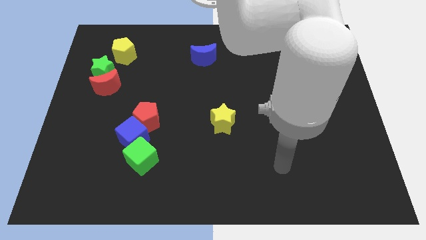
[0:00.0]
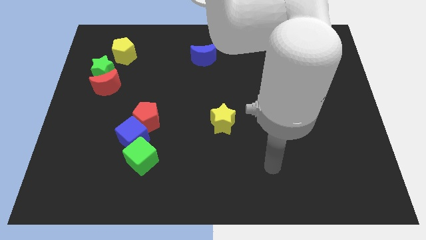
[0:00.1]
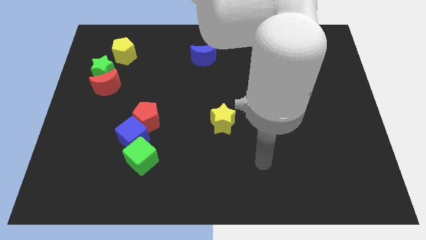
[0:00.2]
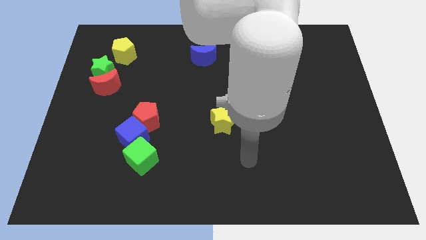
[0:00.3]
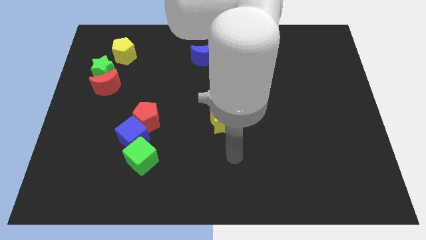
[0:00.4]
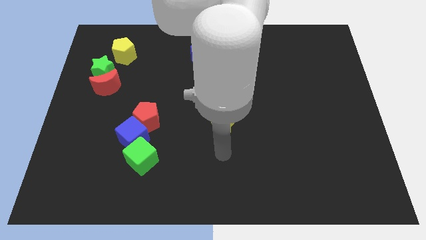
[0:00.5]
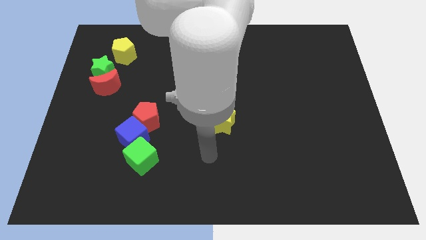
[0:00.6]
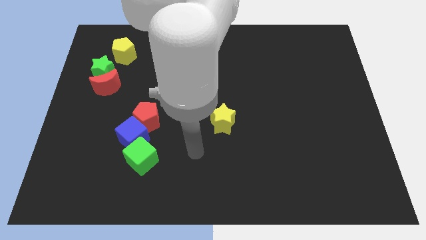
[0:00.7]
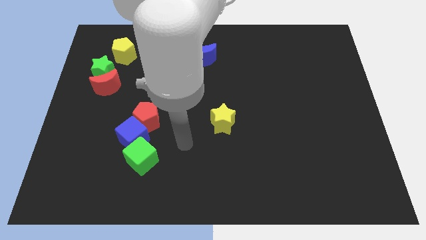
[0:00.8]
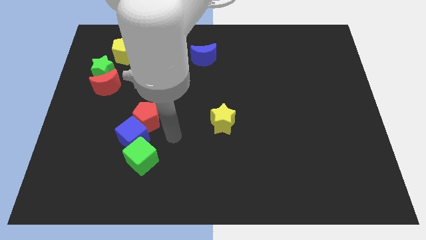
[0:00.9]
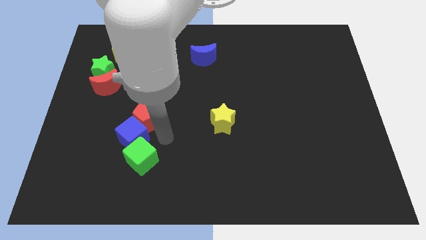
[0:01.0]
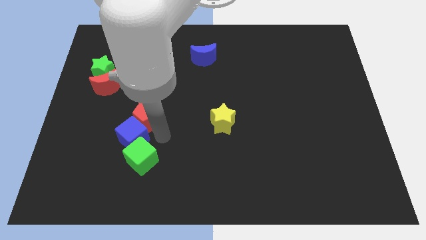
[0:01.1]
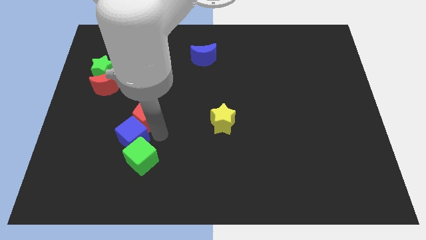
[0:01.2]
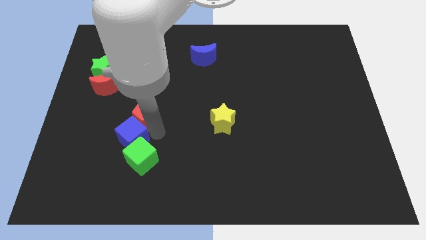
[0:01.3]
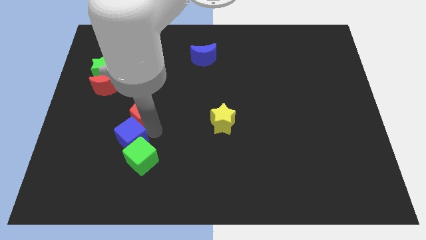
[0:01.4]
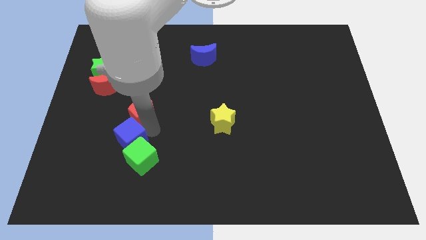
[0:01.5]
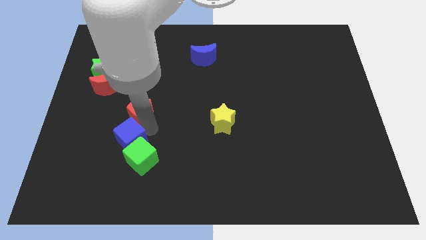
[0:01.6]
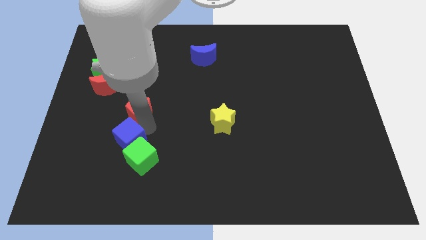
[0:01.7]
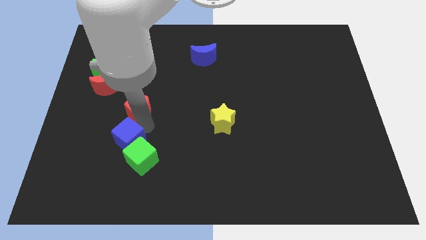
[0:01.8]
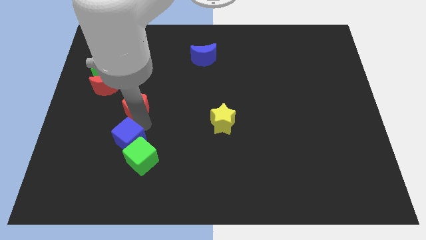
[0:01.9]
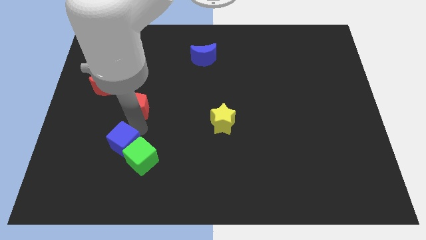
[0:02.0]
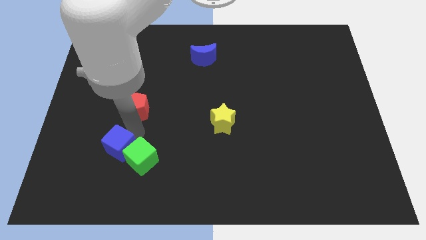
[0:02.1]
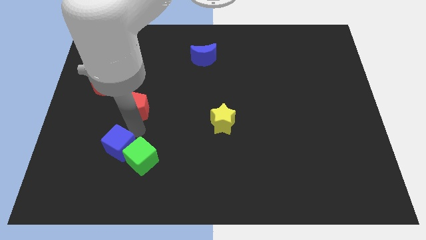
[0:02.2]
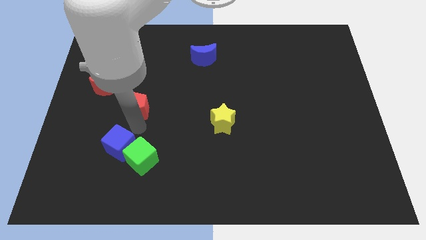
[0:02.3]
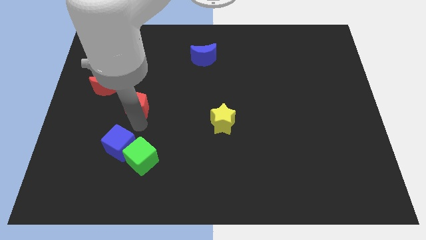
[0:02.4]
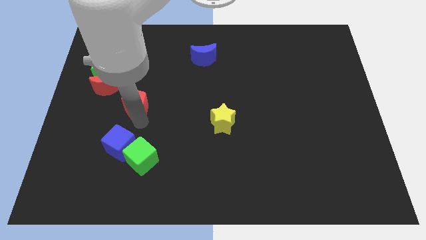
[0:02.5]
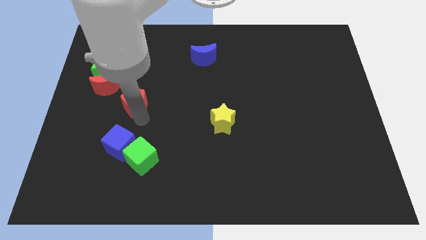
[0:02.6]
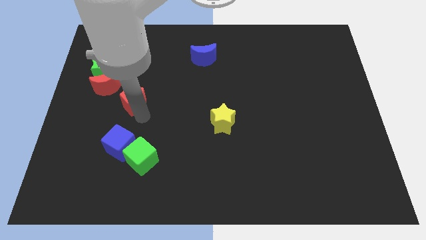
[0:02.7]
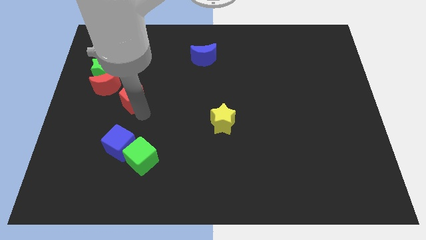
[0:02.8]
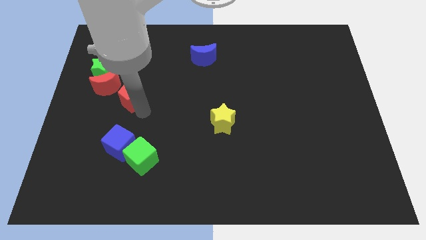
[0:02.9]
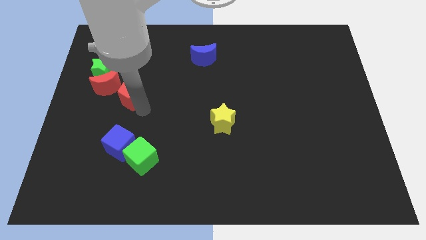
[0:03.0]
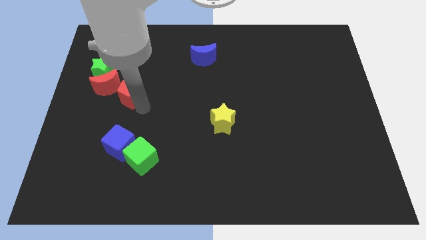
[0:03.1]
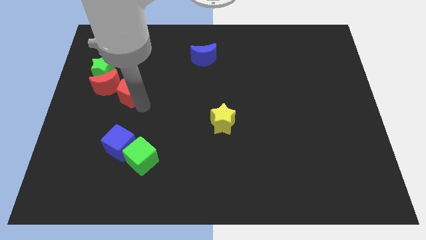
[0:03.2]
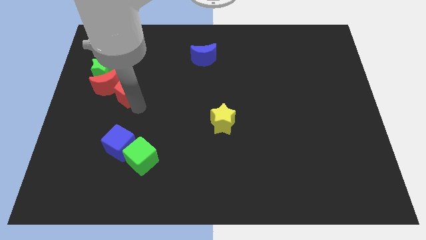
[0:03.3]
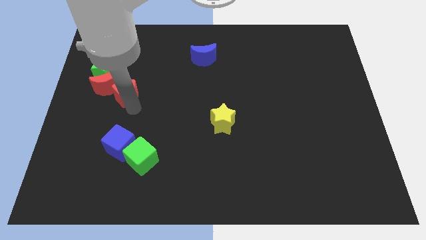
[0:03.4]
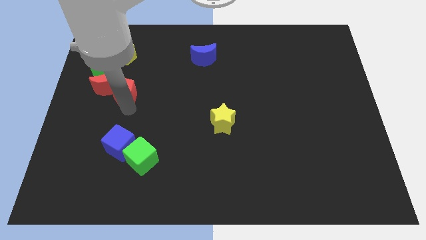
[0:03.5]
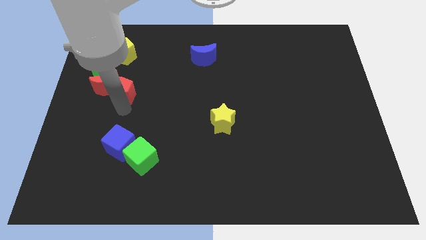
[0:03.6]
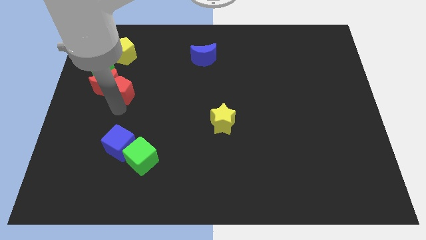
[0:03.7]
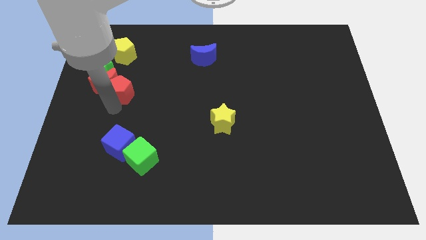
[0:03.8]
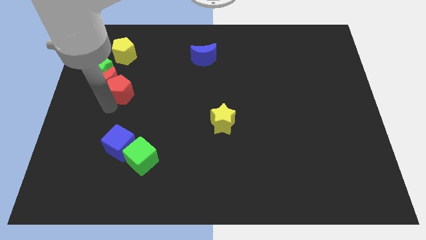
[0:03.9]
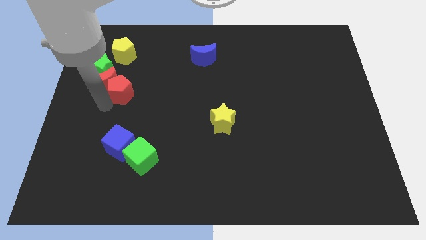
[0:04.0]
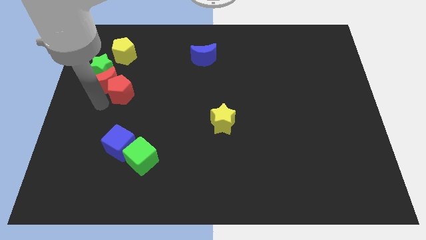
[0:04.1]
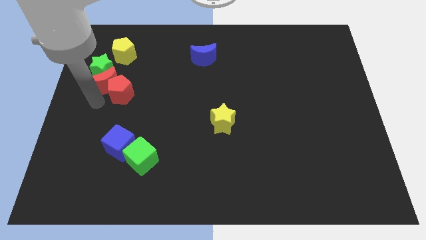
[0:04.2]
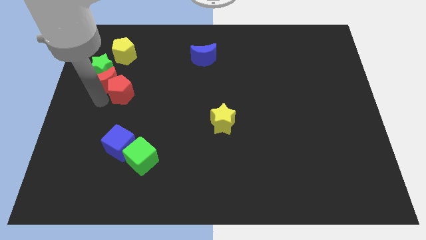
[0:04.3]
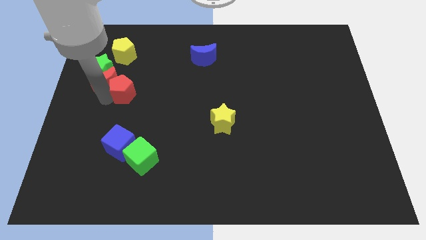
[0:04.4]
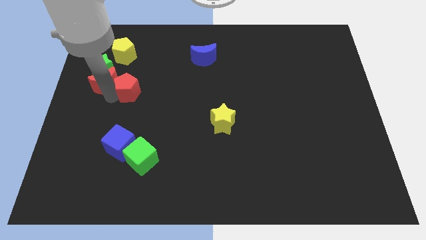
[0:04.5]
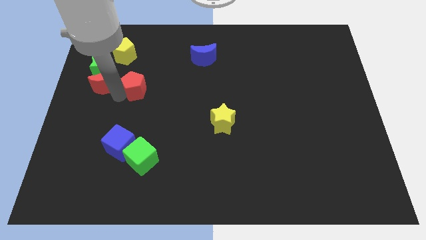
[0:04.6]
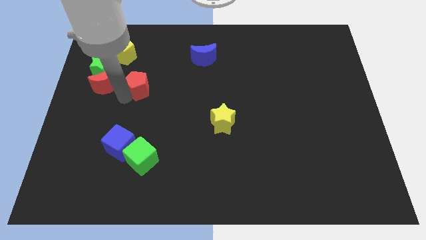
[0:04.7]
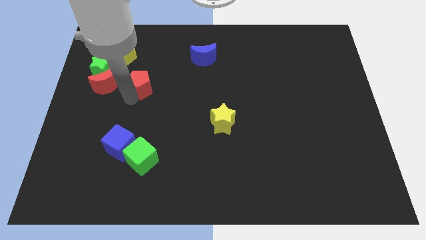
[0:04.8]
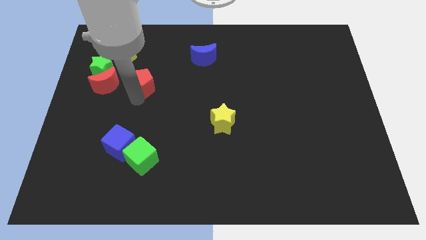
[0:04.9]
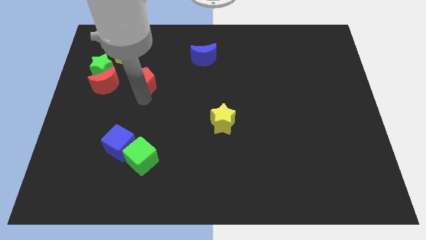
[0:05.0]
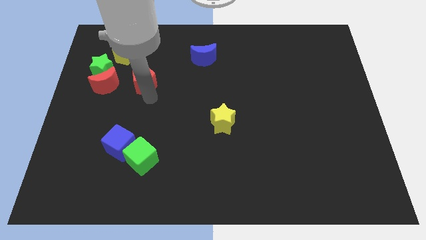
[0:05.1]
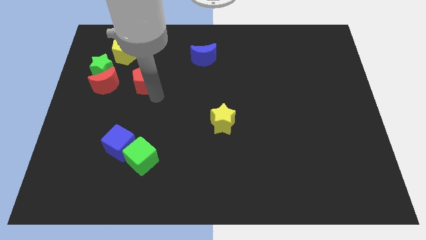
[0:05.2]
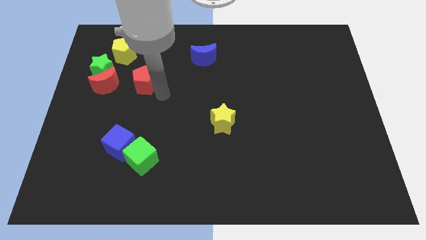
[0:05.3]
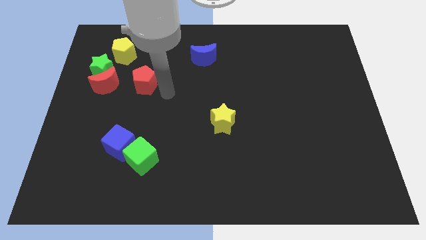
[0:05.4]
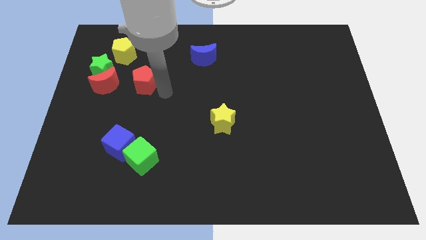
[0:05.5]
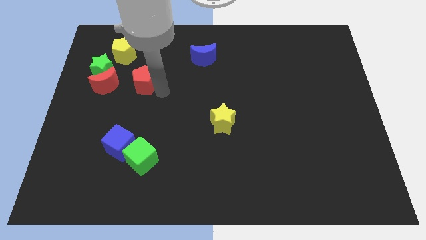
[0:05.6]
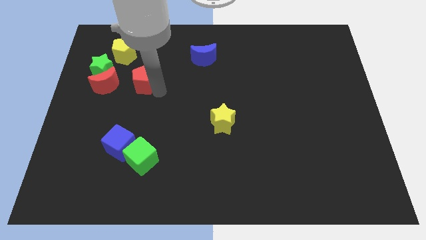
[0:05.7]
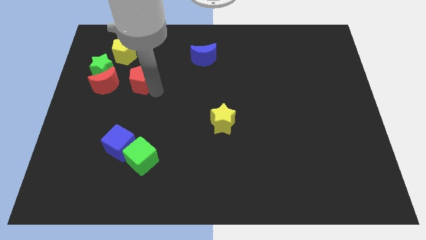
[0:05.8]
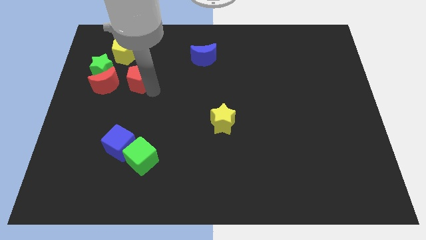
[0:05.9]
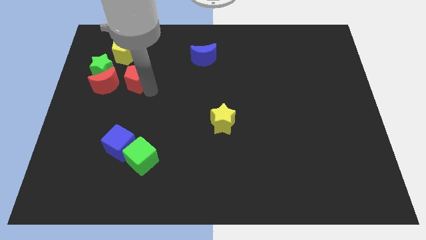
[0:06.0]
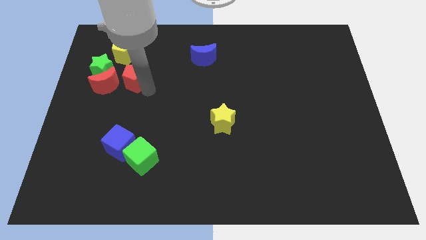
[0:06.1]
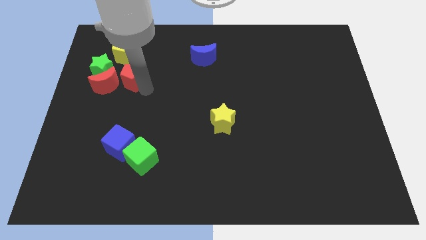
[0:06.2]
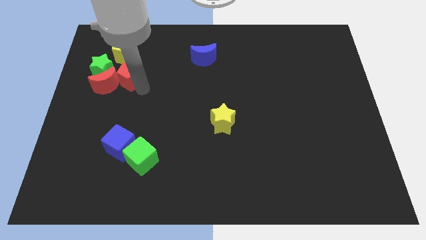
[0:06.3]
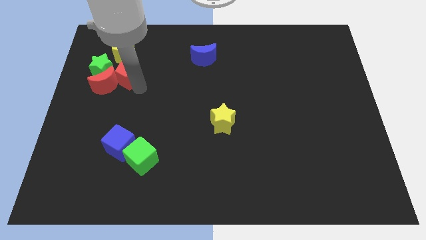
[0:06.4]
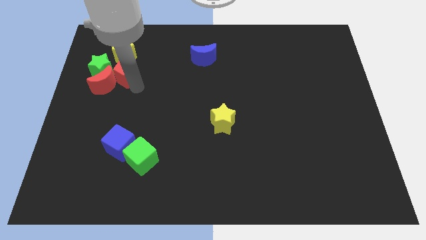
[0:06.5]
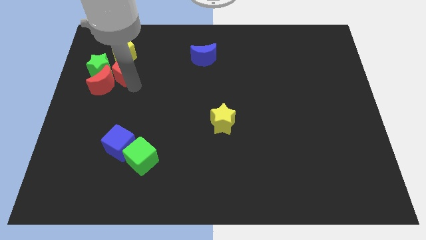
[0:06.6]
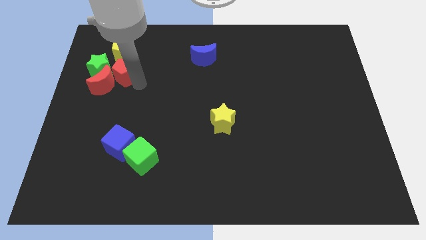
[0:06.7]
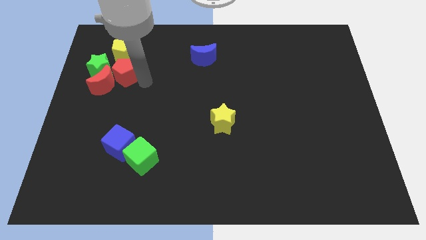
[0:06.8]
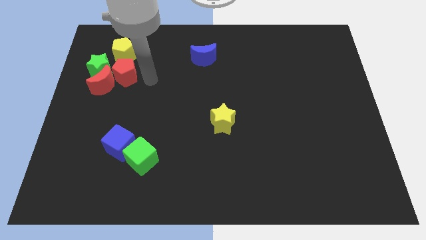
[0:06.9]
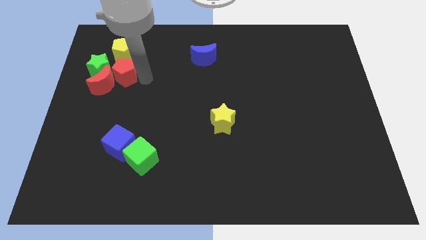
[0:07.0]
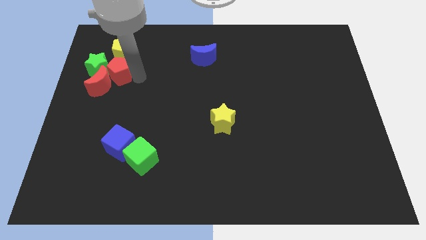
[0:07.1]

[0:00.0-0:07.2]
put the red pentagon close to the green star

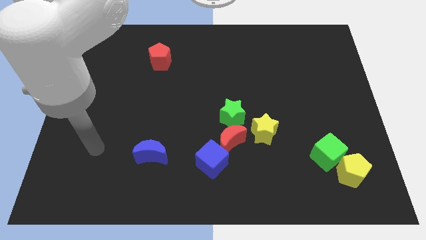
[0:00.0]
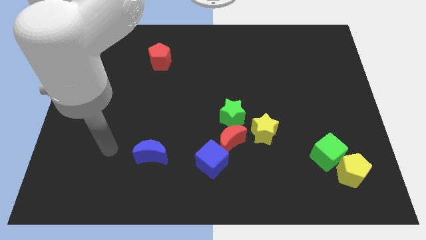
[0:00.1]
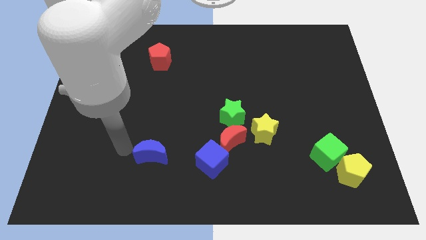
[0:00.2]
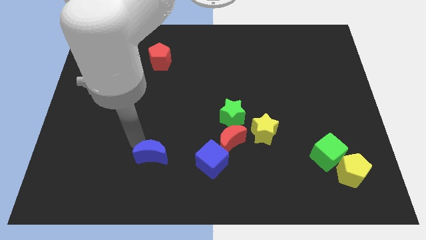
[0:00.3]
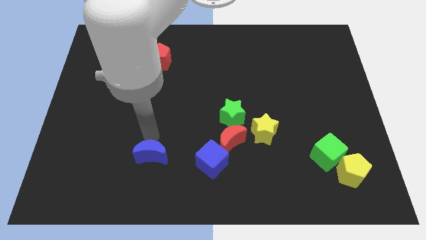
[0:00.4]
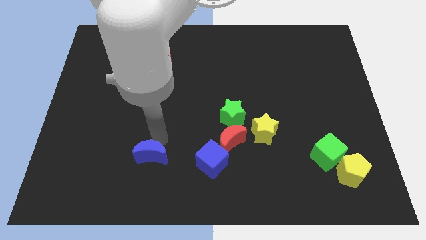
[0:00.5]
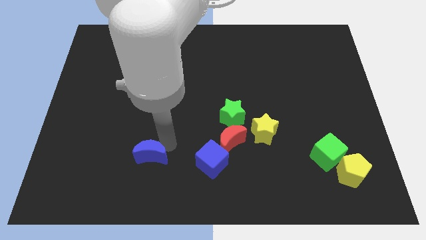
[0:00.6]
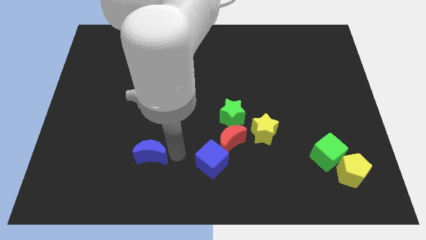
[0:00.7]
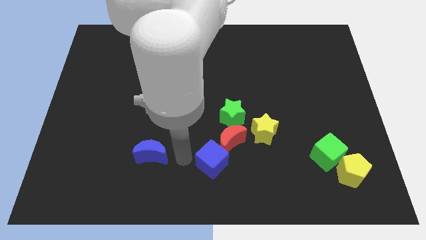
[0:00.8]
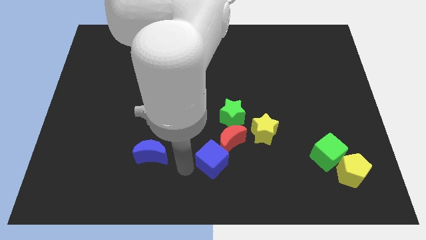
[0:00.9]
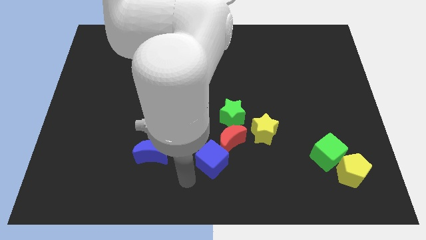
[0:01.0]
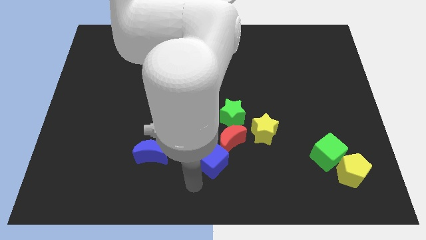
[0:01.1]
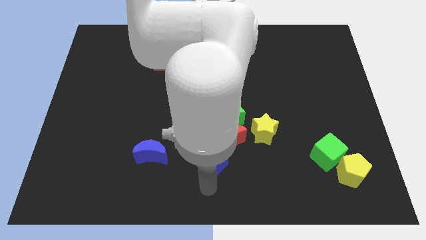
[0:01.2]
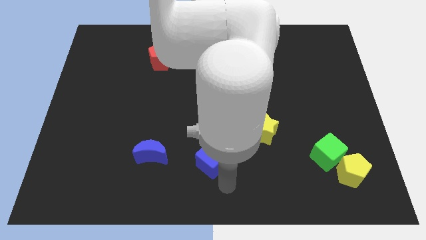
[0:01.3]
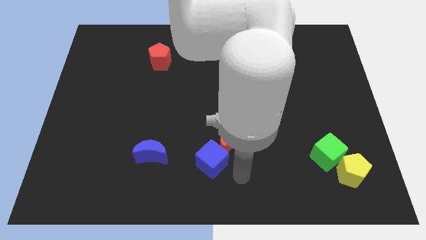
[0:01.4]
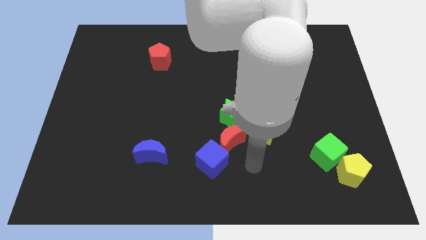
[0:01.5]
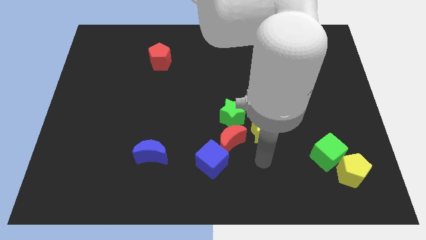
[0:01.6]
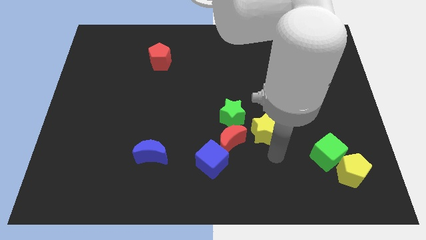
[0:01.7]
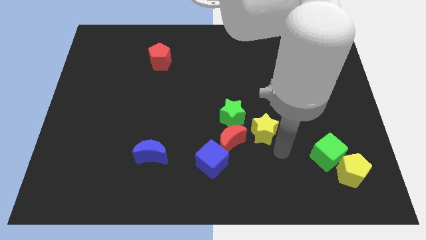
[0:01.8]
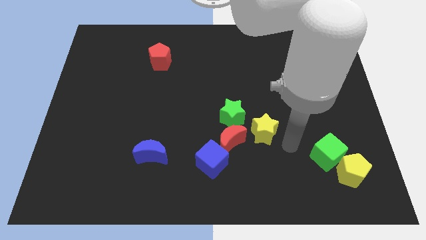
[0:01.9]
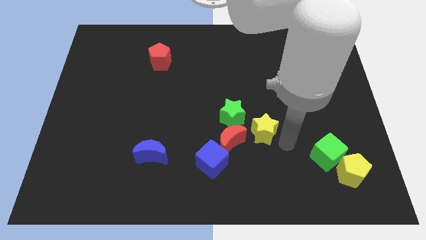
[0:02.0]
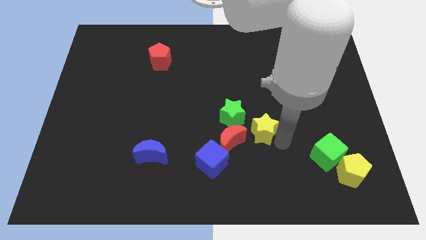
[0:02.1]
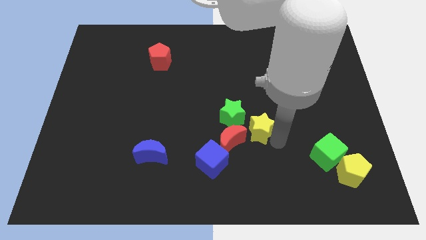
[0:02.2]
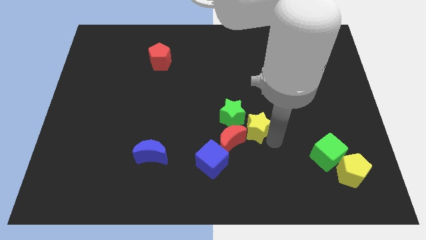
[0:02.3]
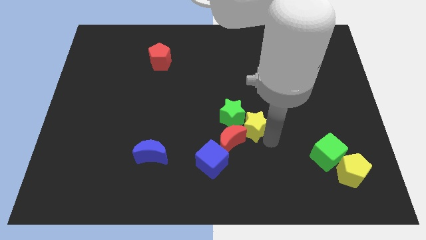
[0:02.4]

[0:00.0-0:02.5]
put the yellow star towards the green star
